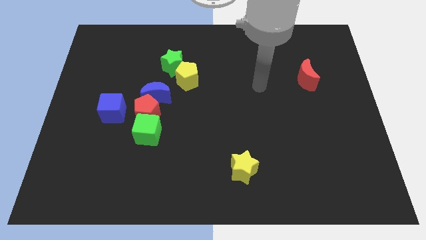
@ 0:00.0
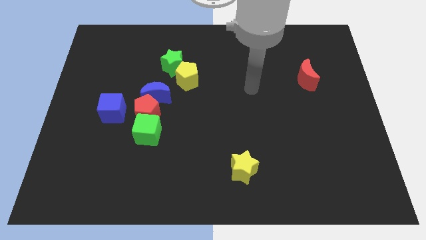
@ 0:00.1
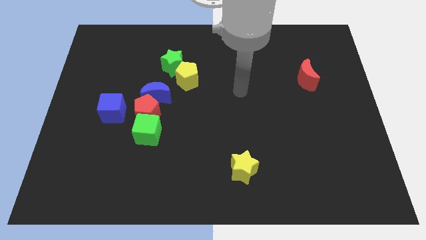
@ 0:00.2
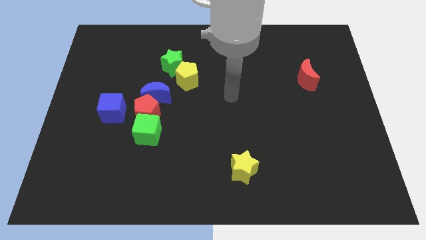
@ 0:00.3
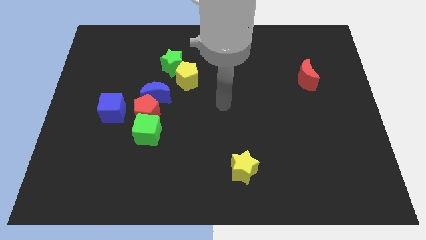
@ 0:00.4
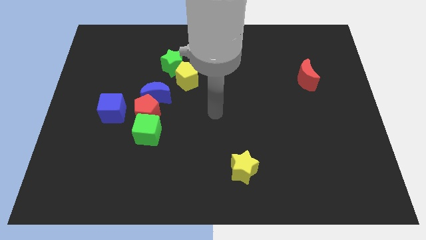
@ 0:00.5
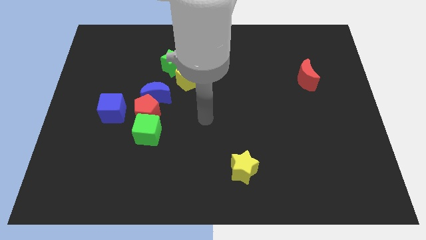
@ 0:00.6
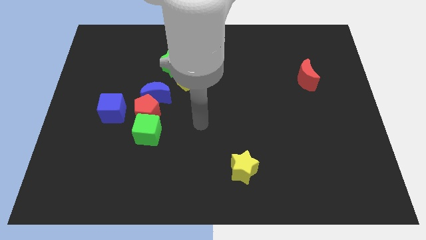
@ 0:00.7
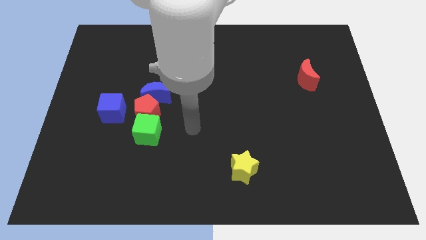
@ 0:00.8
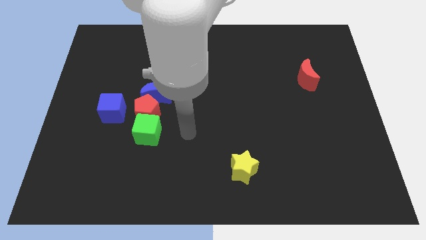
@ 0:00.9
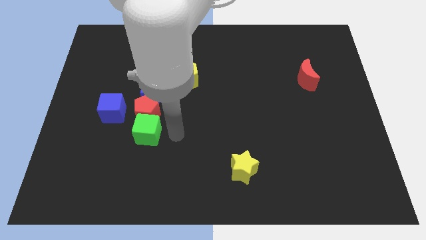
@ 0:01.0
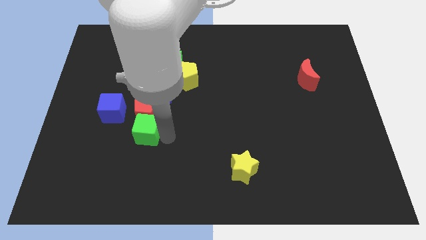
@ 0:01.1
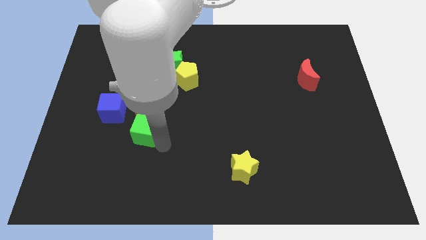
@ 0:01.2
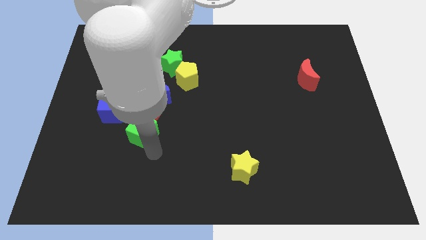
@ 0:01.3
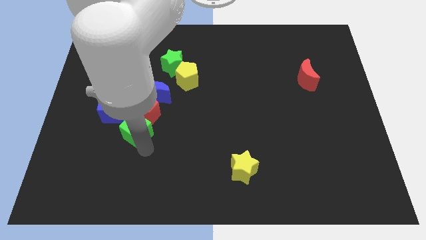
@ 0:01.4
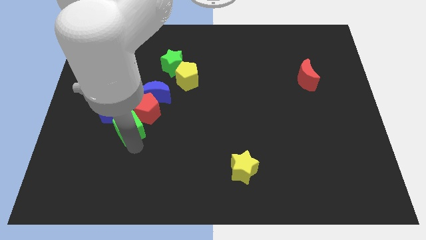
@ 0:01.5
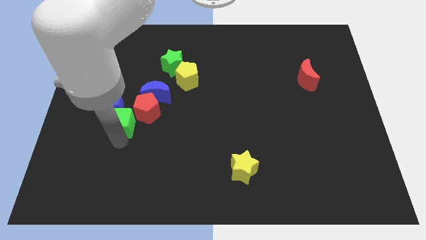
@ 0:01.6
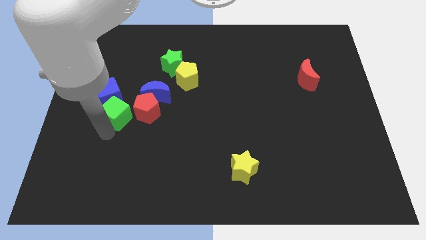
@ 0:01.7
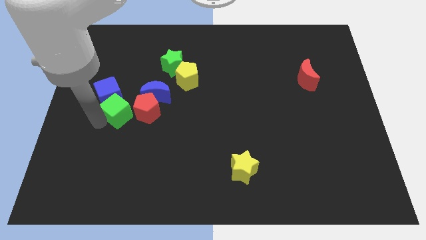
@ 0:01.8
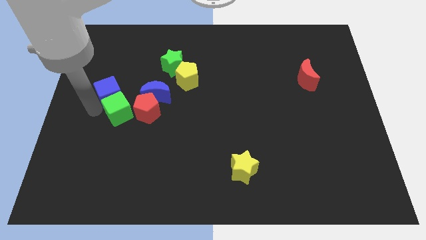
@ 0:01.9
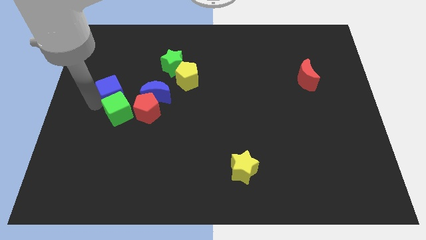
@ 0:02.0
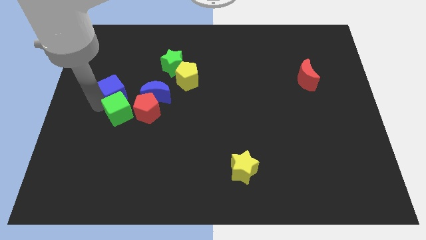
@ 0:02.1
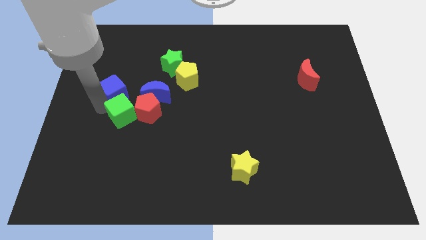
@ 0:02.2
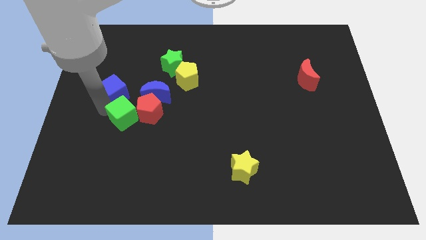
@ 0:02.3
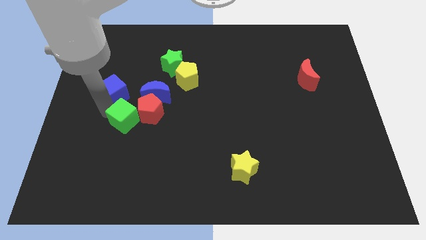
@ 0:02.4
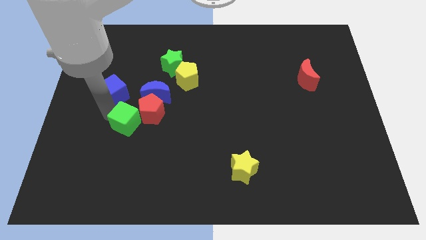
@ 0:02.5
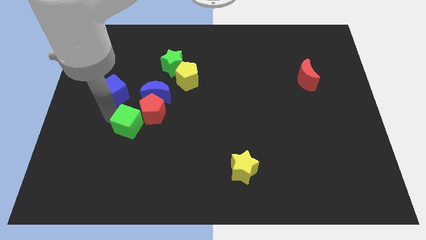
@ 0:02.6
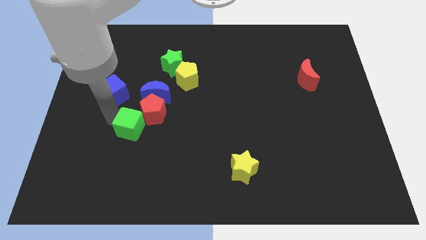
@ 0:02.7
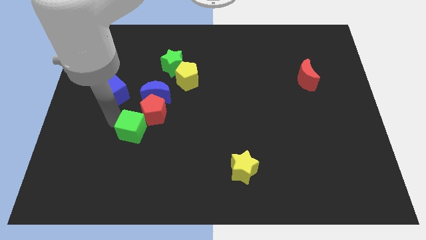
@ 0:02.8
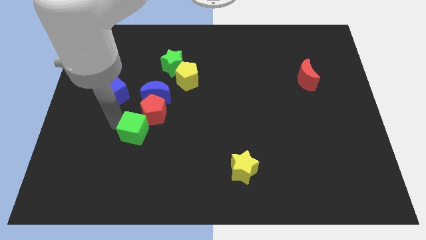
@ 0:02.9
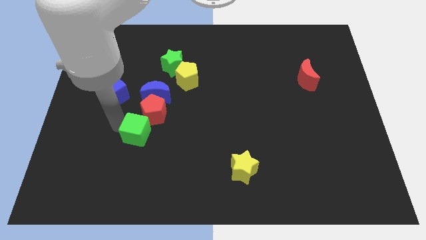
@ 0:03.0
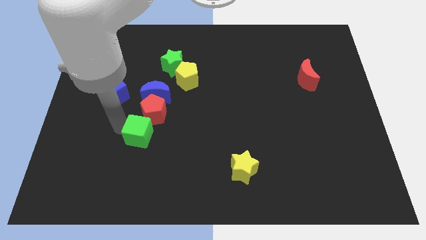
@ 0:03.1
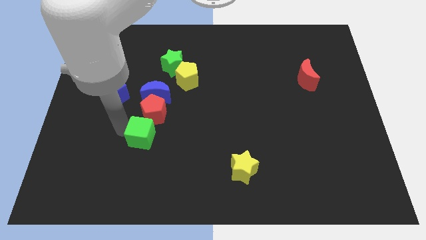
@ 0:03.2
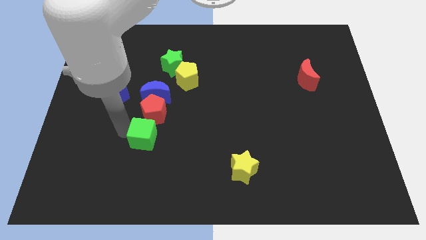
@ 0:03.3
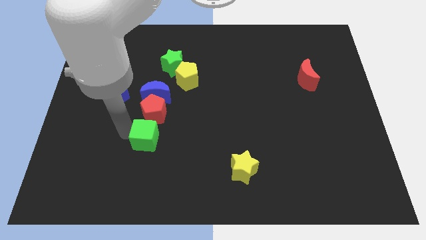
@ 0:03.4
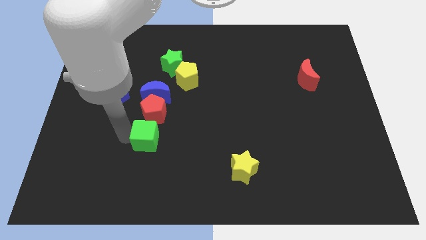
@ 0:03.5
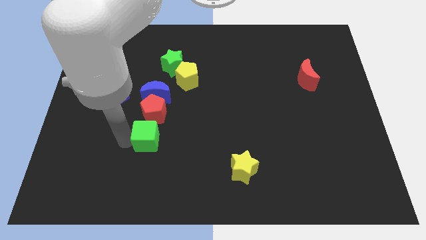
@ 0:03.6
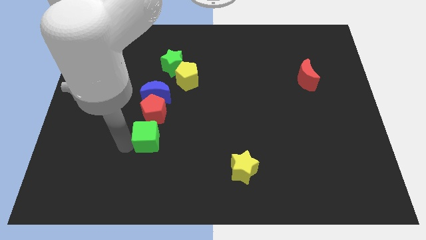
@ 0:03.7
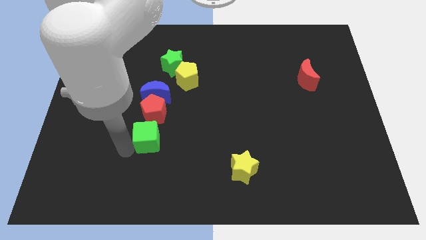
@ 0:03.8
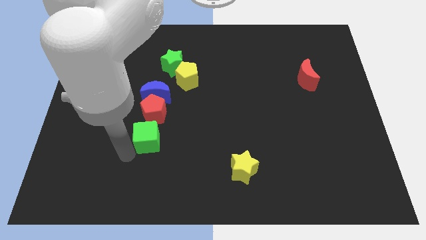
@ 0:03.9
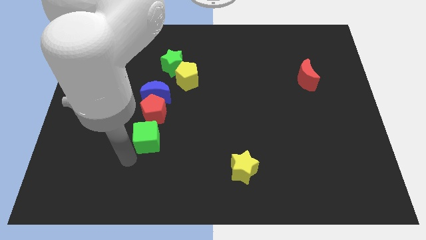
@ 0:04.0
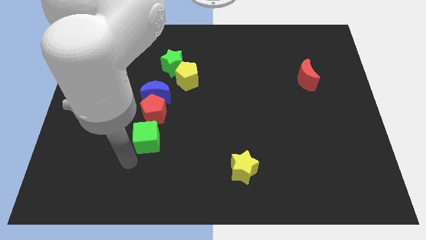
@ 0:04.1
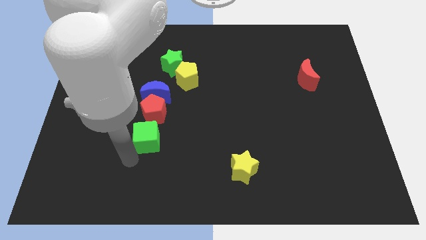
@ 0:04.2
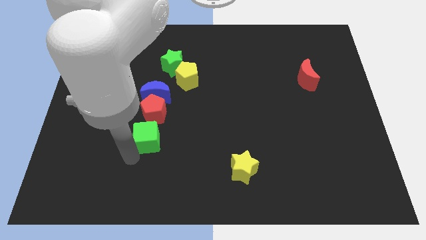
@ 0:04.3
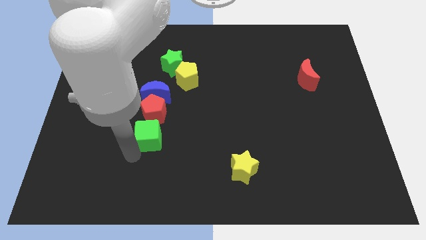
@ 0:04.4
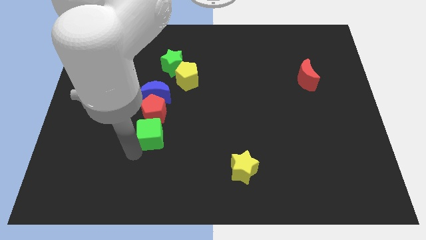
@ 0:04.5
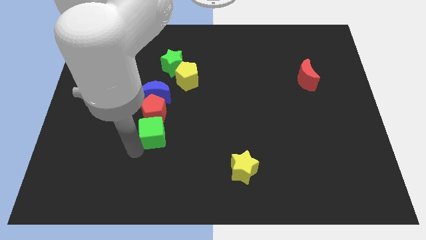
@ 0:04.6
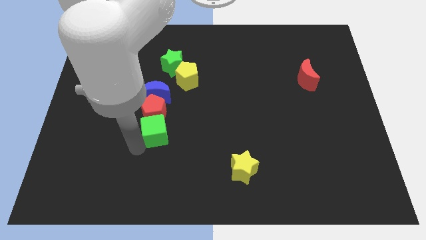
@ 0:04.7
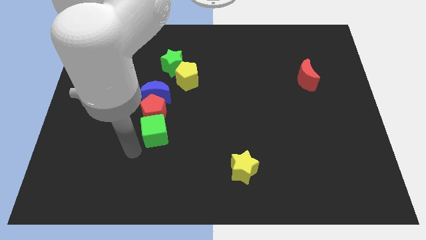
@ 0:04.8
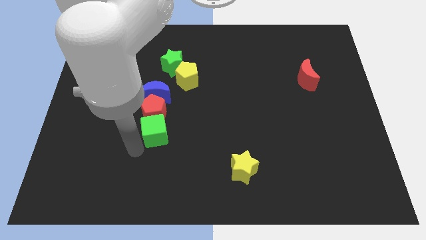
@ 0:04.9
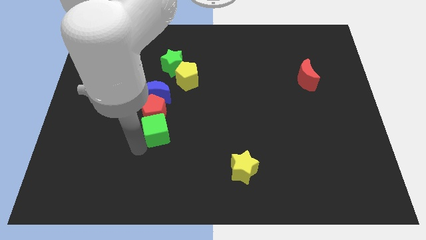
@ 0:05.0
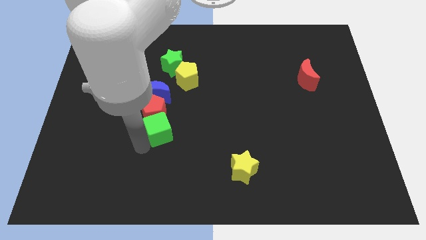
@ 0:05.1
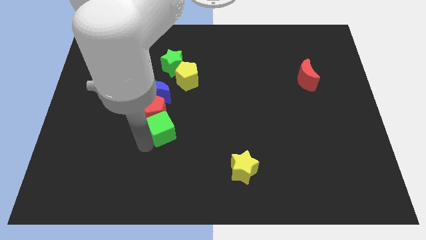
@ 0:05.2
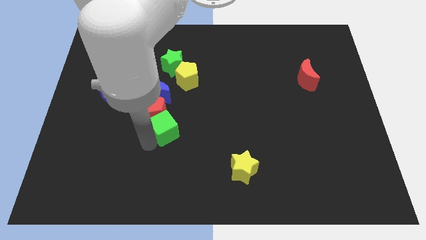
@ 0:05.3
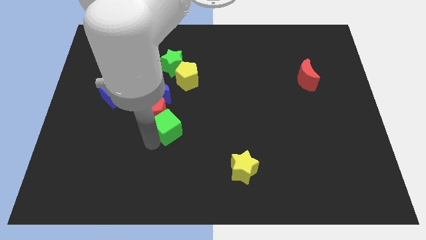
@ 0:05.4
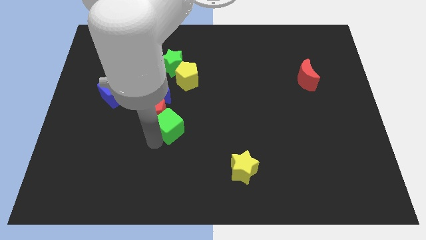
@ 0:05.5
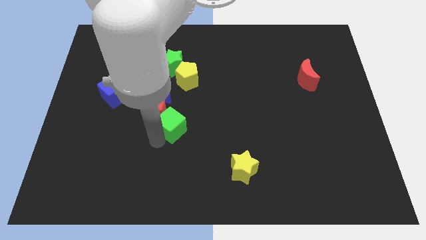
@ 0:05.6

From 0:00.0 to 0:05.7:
move the green cube to the middle of the board
